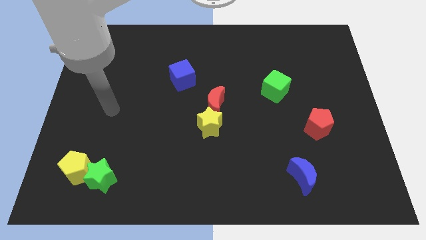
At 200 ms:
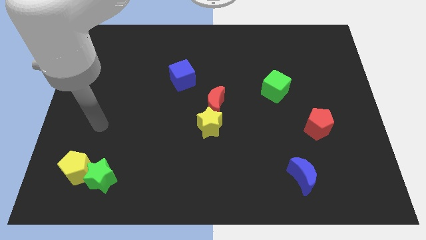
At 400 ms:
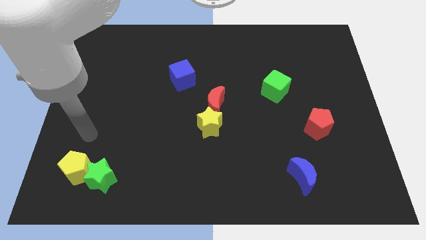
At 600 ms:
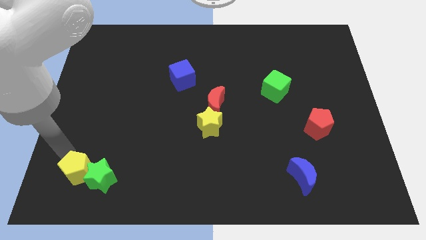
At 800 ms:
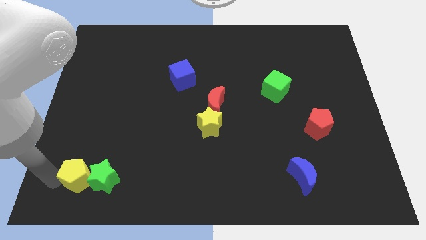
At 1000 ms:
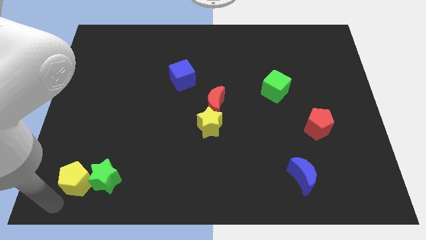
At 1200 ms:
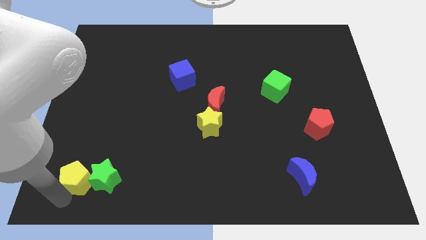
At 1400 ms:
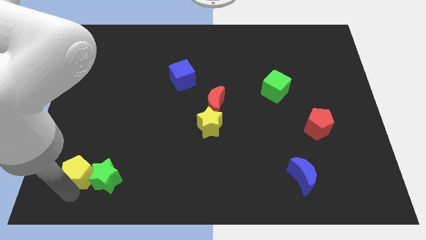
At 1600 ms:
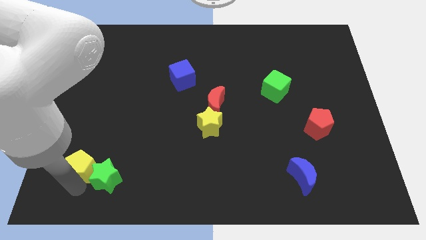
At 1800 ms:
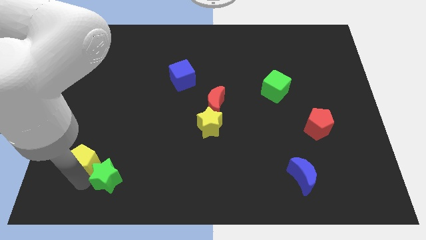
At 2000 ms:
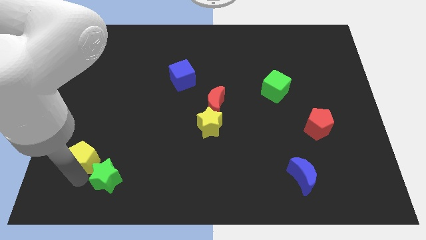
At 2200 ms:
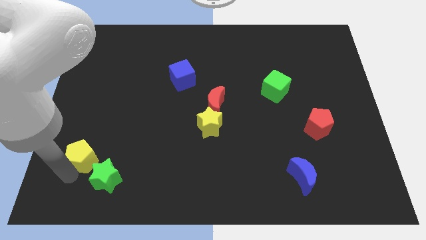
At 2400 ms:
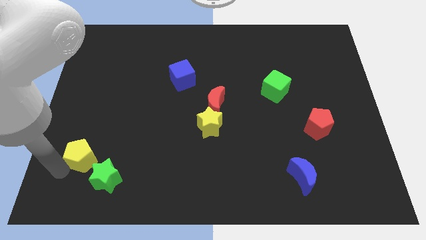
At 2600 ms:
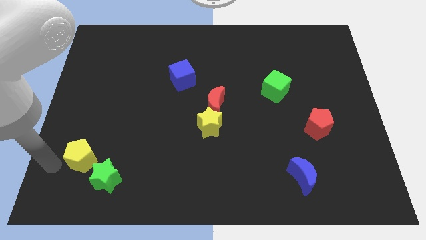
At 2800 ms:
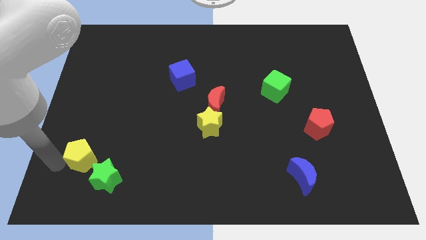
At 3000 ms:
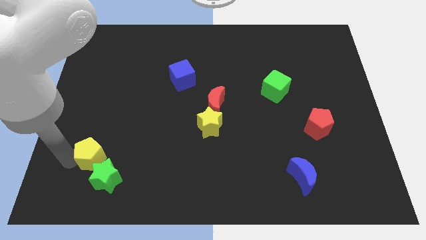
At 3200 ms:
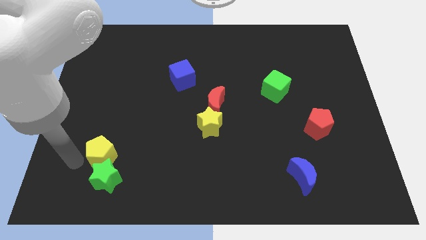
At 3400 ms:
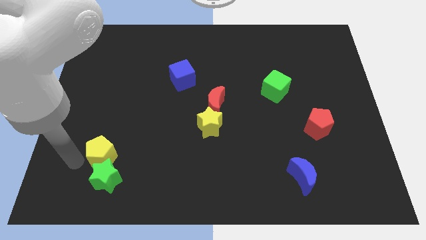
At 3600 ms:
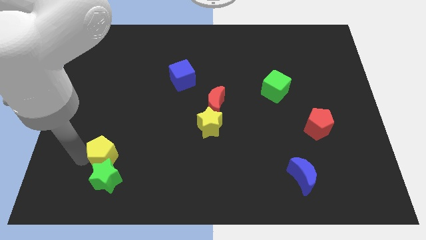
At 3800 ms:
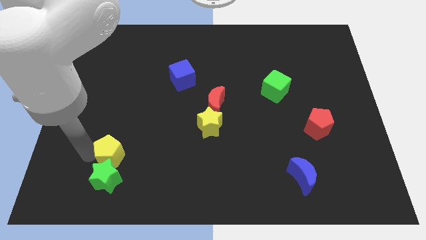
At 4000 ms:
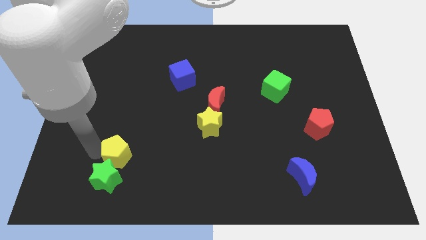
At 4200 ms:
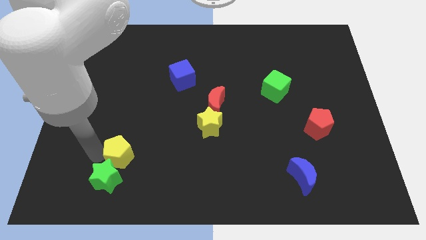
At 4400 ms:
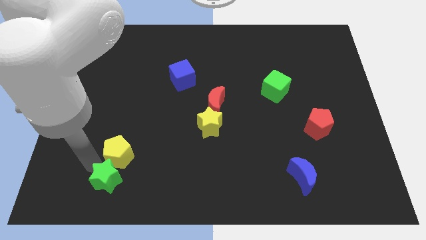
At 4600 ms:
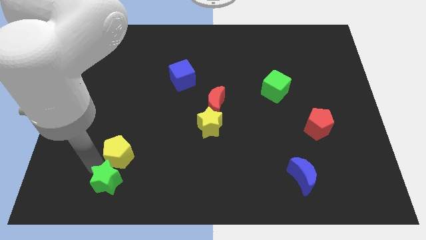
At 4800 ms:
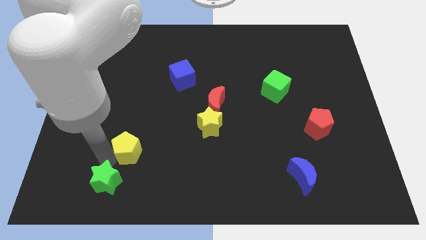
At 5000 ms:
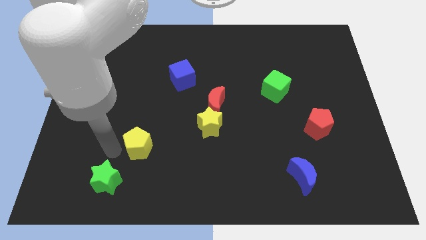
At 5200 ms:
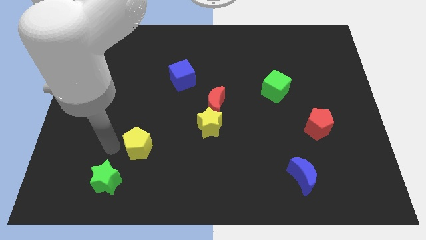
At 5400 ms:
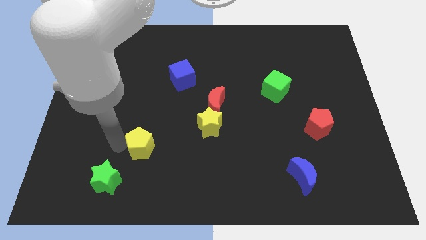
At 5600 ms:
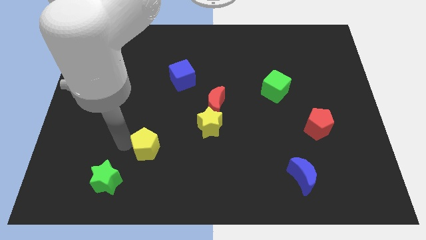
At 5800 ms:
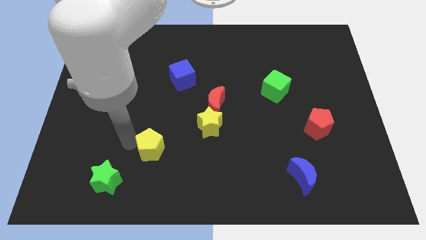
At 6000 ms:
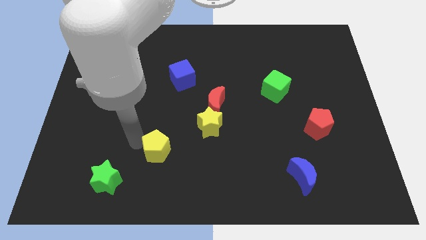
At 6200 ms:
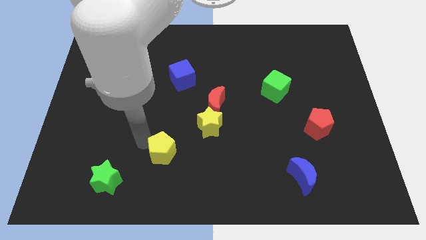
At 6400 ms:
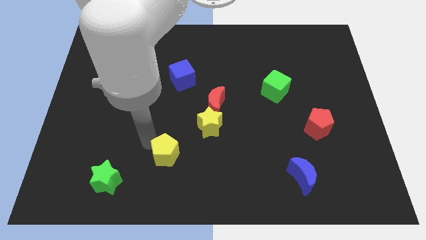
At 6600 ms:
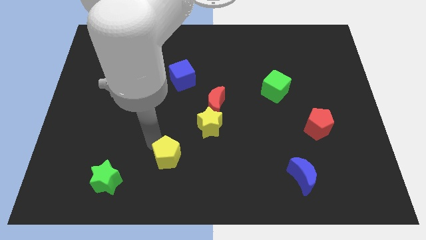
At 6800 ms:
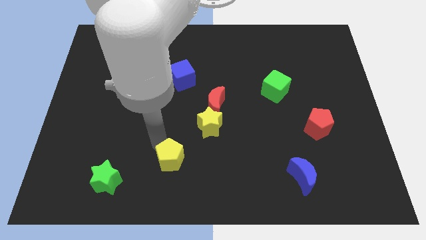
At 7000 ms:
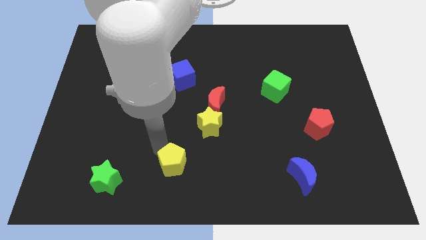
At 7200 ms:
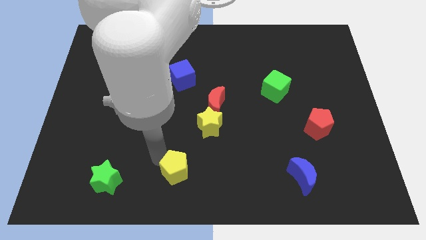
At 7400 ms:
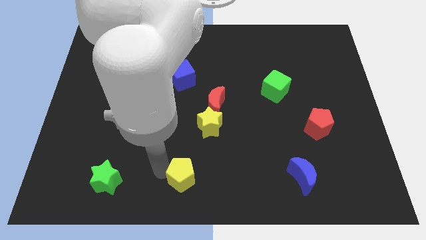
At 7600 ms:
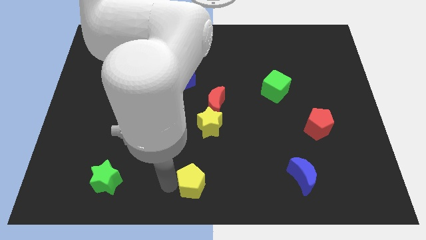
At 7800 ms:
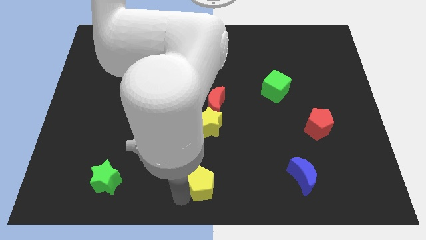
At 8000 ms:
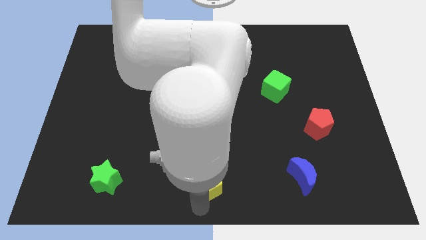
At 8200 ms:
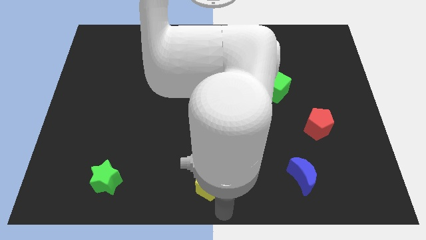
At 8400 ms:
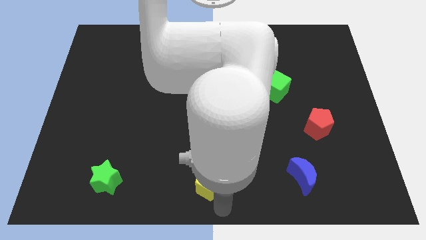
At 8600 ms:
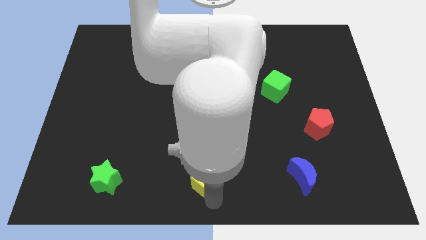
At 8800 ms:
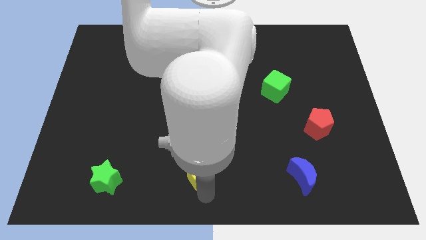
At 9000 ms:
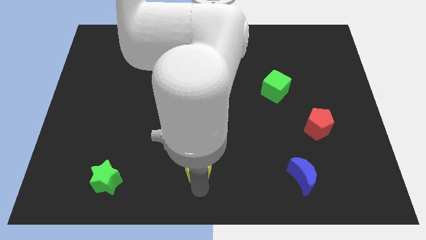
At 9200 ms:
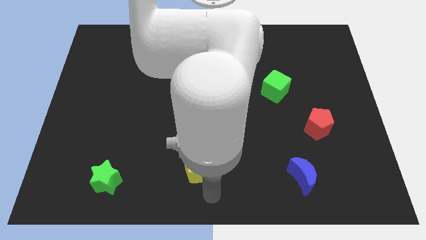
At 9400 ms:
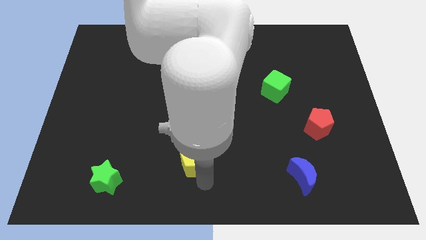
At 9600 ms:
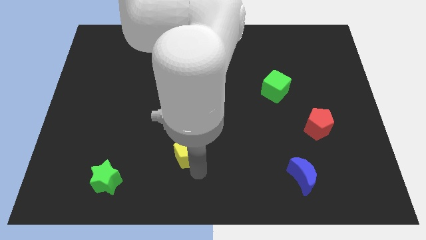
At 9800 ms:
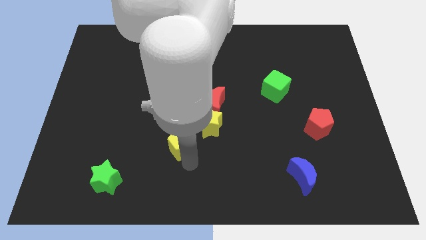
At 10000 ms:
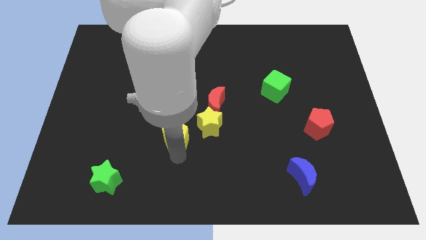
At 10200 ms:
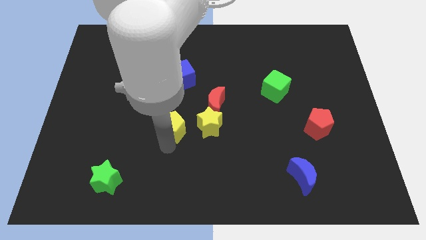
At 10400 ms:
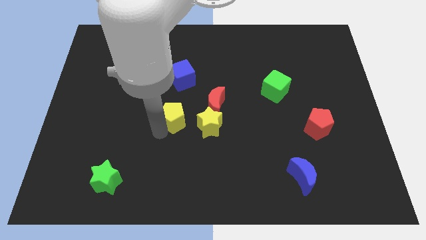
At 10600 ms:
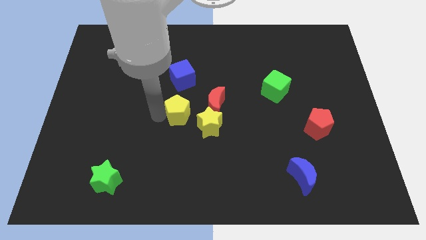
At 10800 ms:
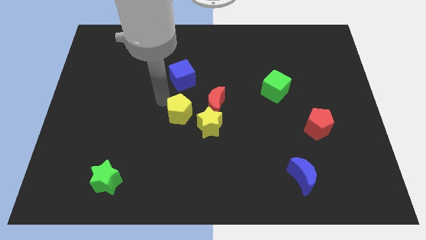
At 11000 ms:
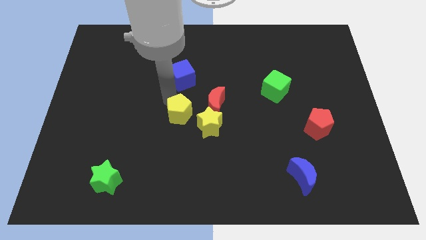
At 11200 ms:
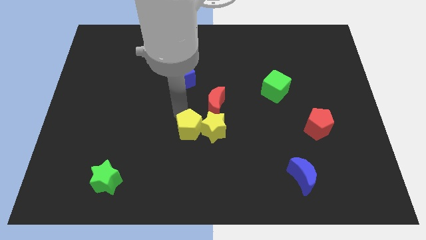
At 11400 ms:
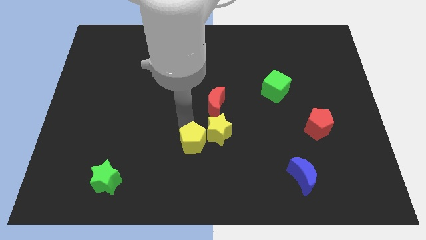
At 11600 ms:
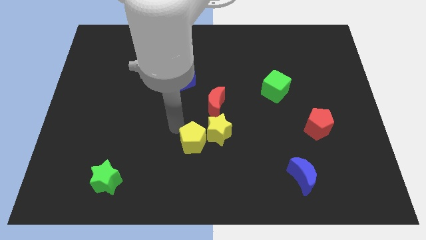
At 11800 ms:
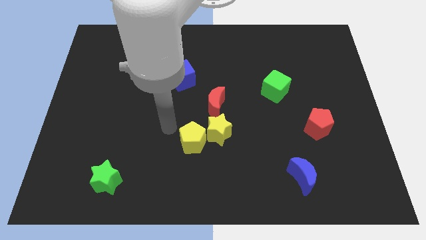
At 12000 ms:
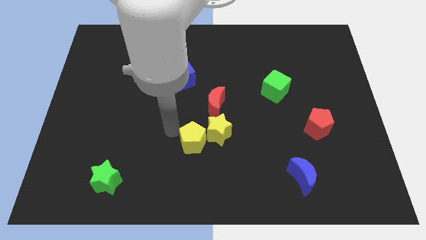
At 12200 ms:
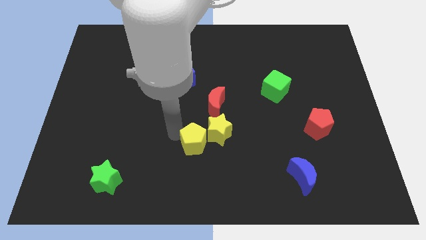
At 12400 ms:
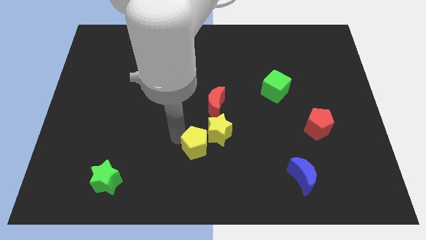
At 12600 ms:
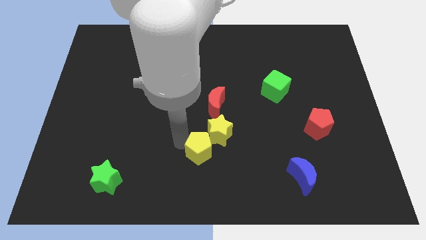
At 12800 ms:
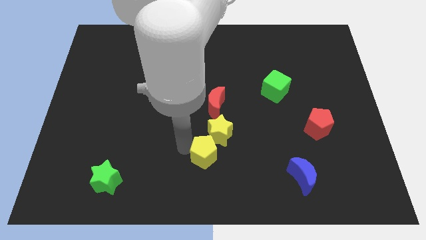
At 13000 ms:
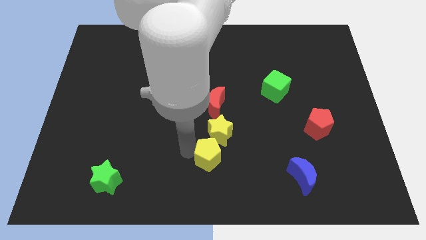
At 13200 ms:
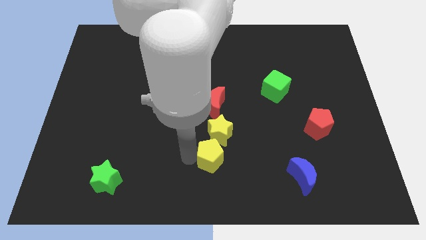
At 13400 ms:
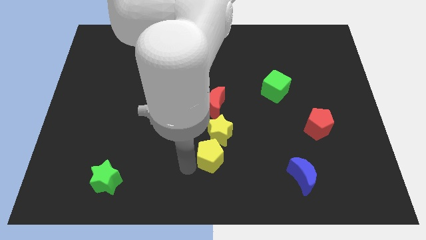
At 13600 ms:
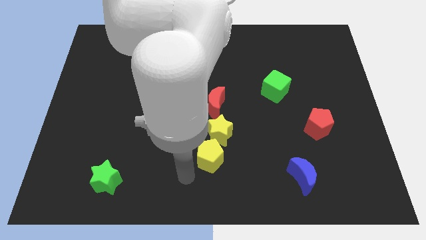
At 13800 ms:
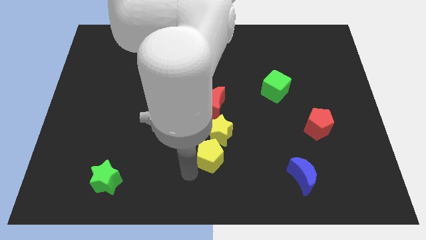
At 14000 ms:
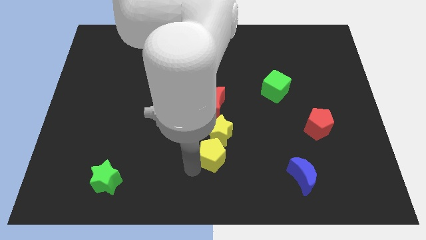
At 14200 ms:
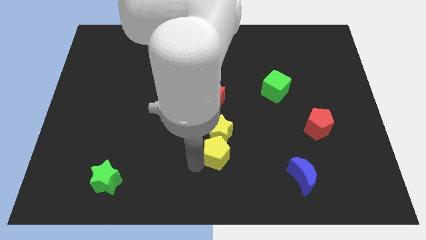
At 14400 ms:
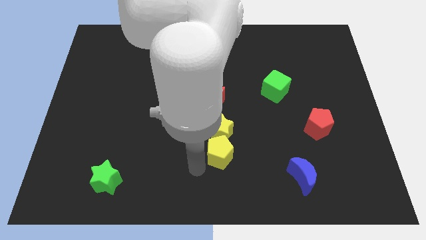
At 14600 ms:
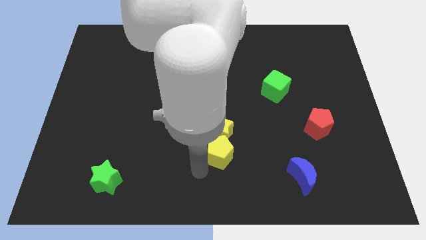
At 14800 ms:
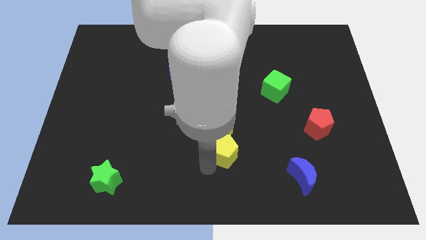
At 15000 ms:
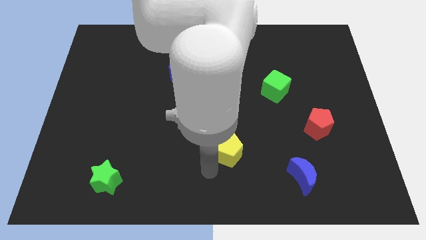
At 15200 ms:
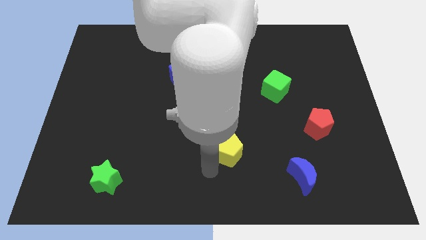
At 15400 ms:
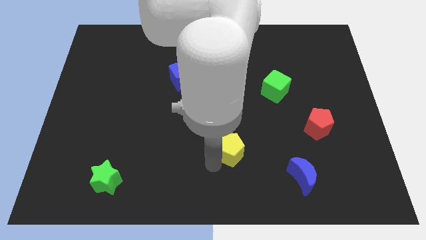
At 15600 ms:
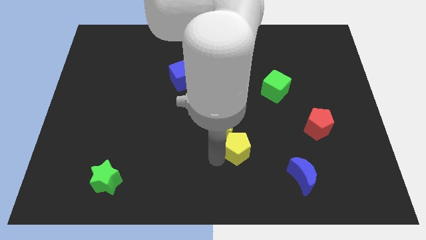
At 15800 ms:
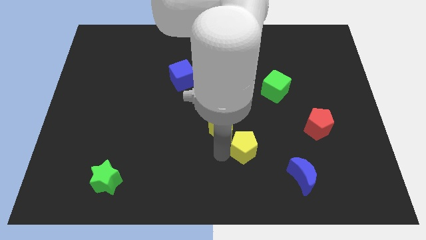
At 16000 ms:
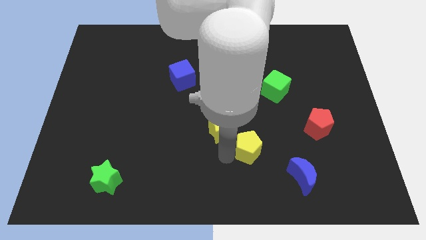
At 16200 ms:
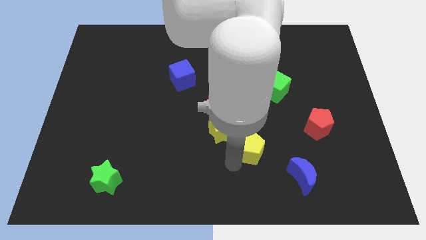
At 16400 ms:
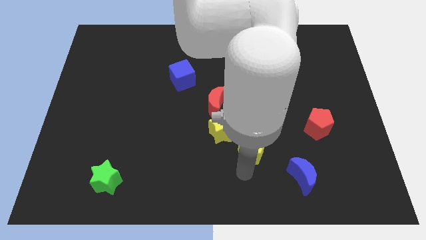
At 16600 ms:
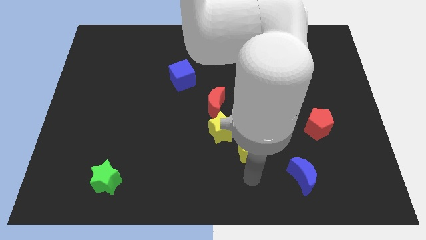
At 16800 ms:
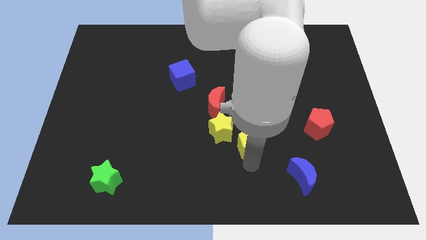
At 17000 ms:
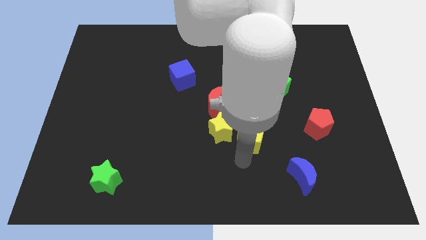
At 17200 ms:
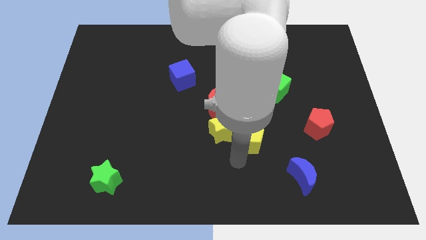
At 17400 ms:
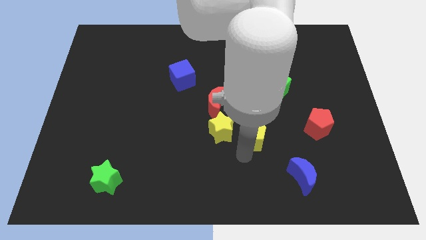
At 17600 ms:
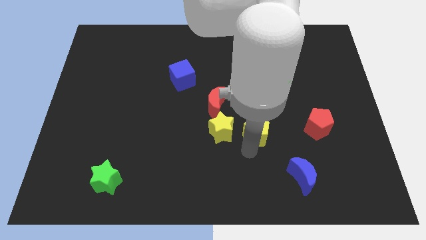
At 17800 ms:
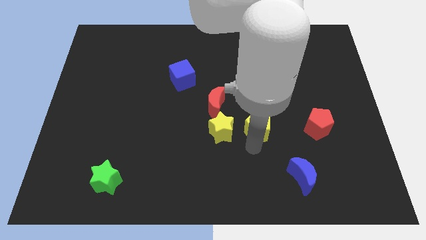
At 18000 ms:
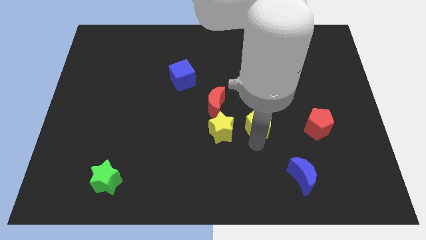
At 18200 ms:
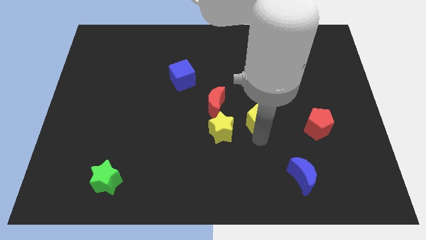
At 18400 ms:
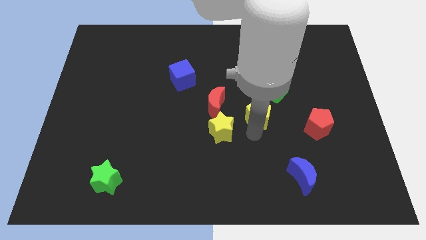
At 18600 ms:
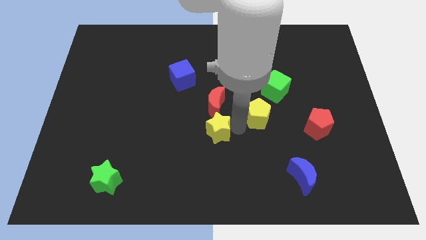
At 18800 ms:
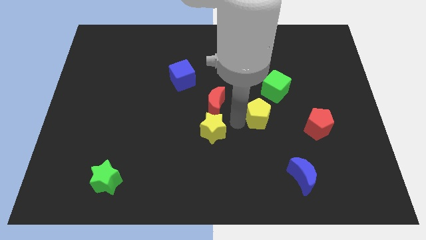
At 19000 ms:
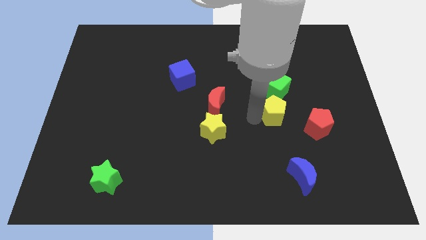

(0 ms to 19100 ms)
push the yellow pentagon diagonally up and to the left of the red pentagon
